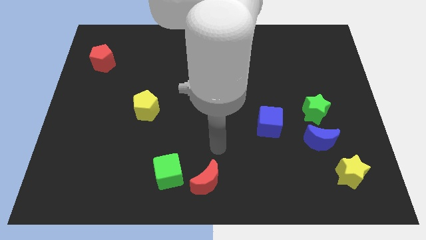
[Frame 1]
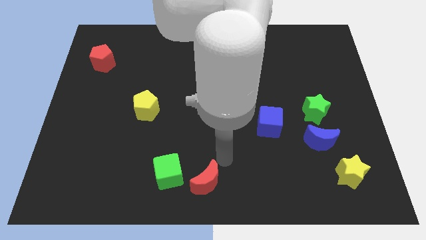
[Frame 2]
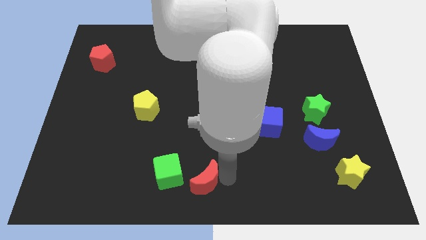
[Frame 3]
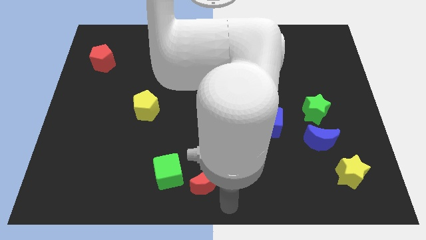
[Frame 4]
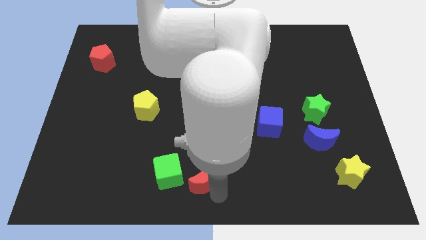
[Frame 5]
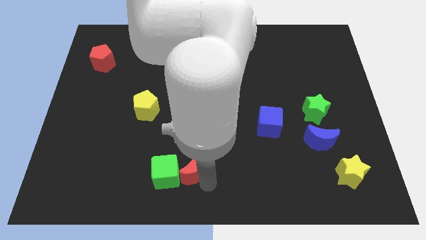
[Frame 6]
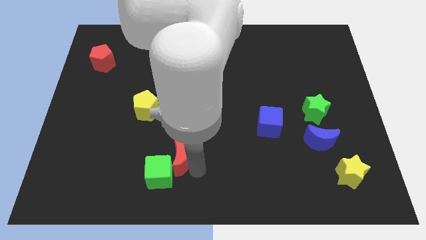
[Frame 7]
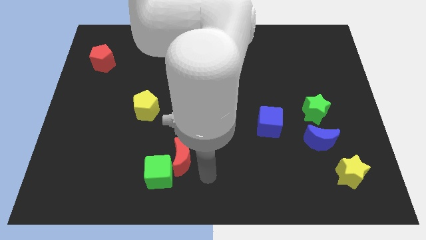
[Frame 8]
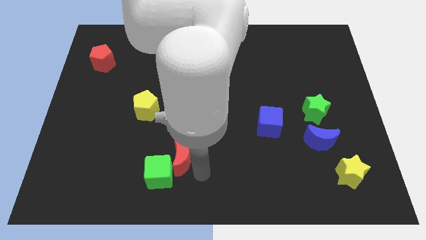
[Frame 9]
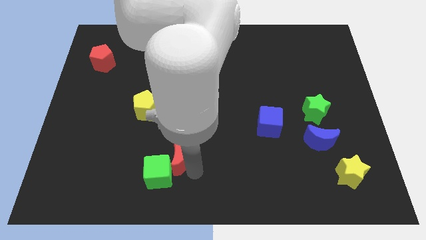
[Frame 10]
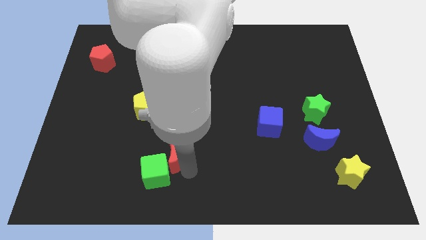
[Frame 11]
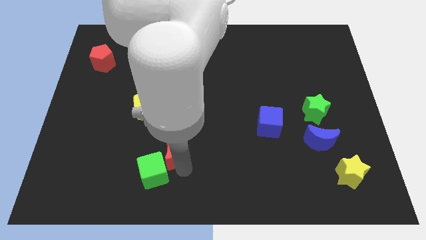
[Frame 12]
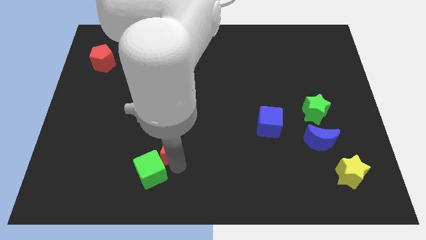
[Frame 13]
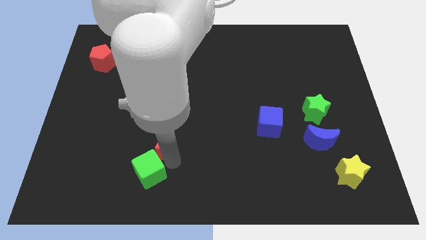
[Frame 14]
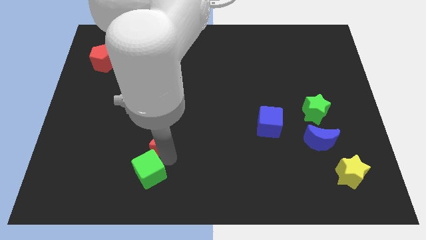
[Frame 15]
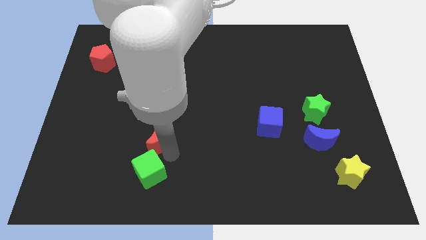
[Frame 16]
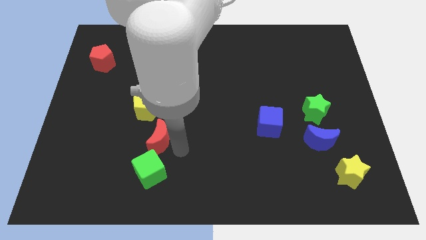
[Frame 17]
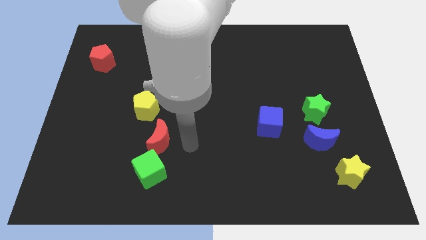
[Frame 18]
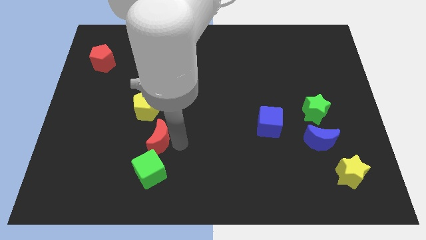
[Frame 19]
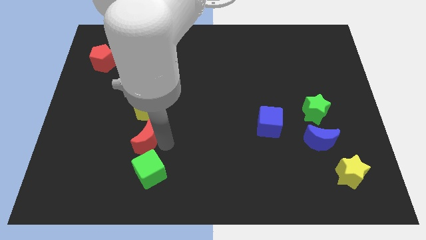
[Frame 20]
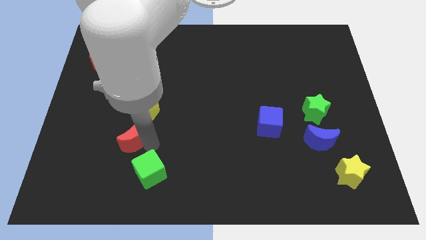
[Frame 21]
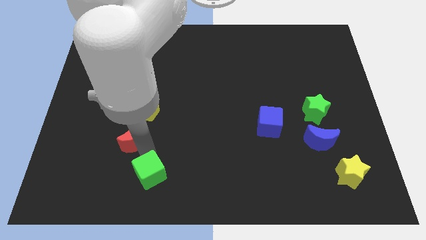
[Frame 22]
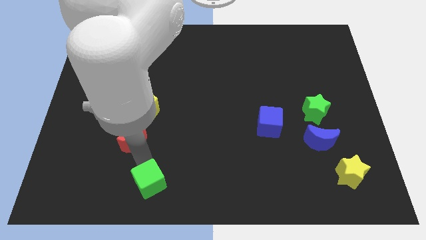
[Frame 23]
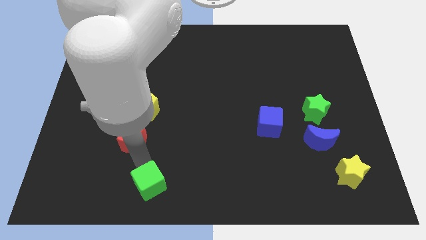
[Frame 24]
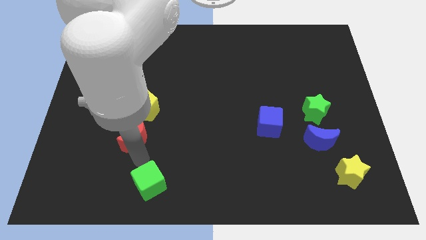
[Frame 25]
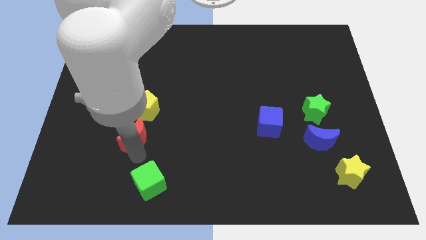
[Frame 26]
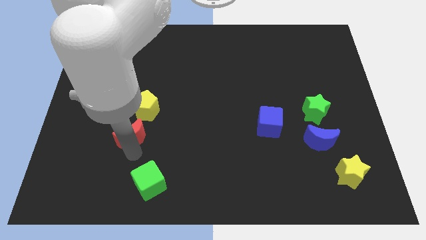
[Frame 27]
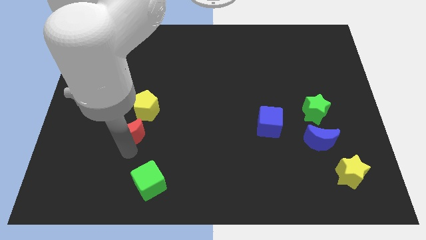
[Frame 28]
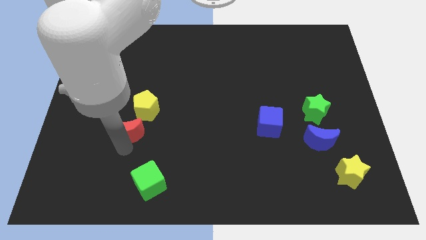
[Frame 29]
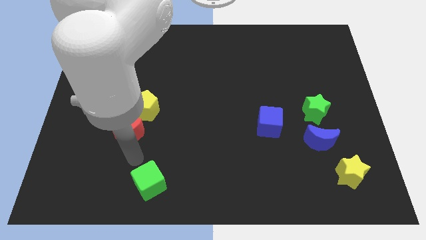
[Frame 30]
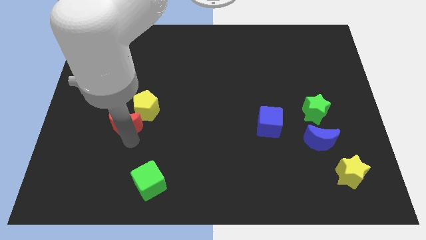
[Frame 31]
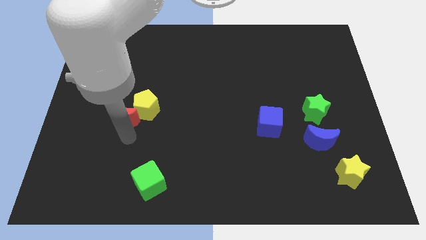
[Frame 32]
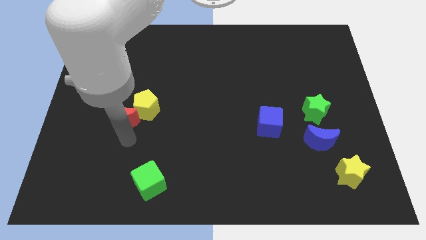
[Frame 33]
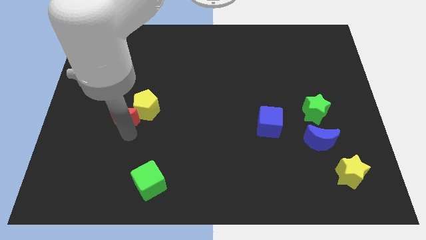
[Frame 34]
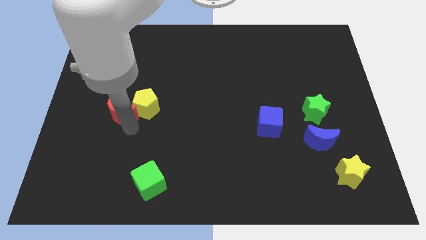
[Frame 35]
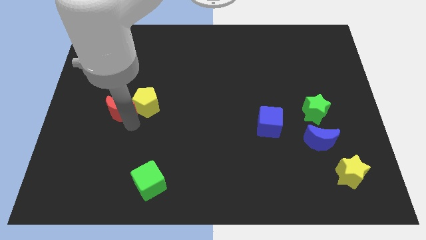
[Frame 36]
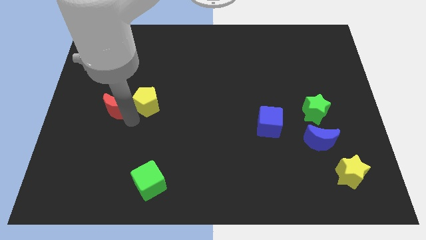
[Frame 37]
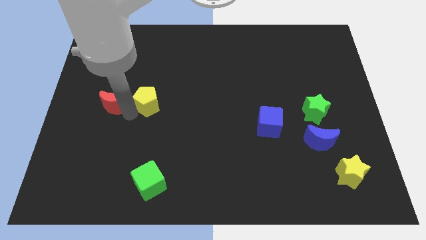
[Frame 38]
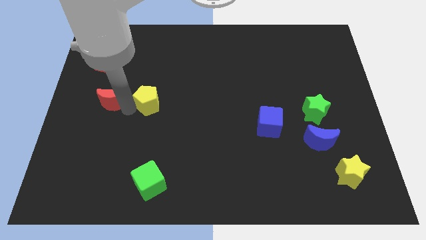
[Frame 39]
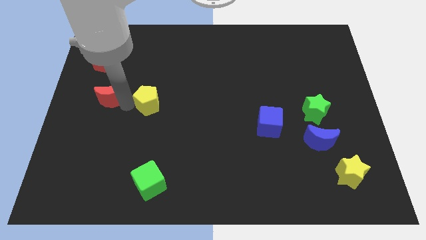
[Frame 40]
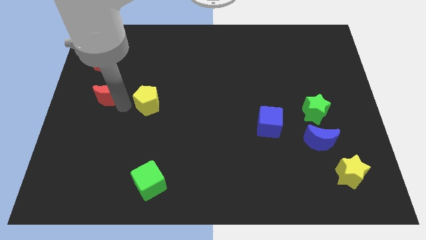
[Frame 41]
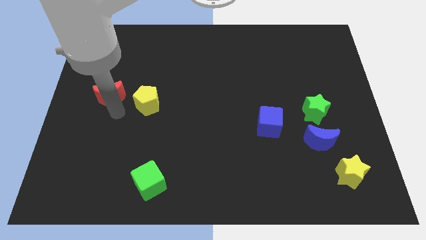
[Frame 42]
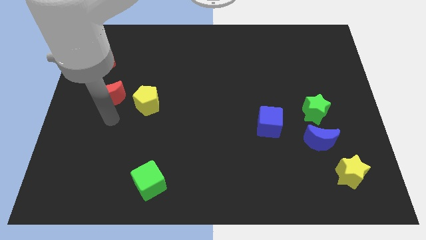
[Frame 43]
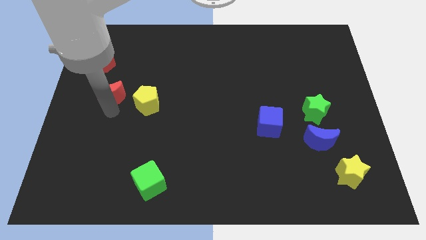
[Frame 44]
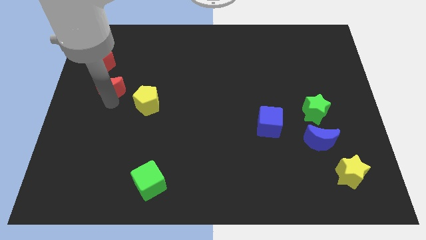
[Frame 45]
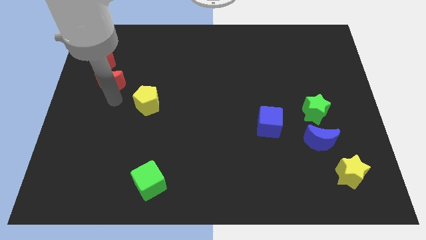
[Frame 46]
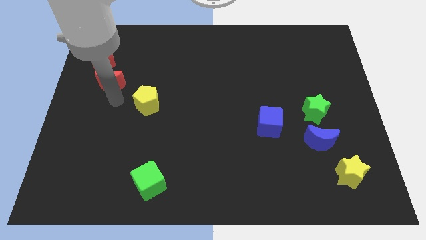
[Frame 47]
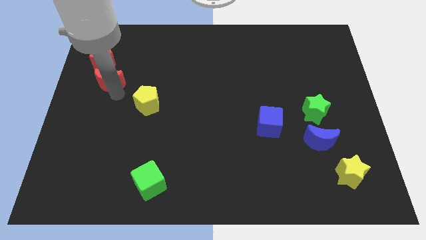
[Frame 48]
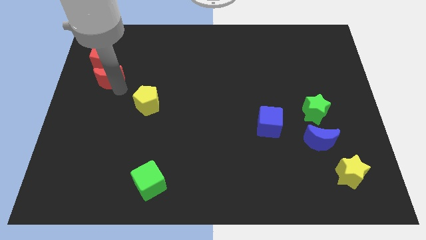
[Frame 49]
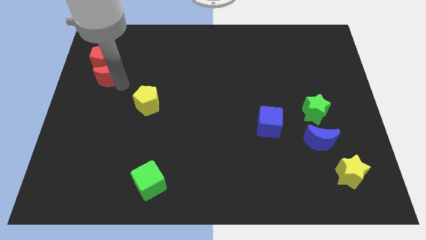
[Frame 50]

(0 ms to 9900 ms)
slide the red moon close to the red pentagon

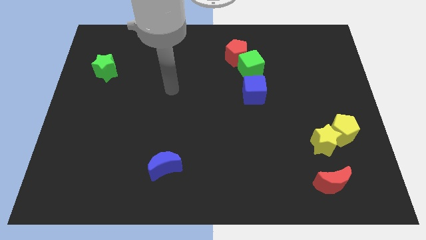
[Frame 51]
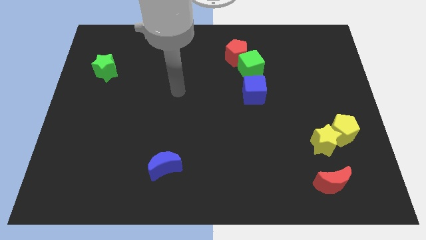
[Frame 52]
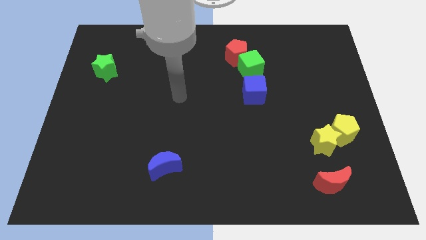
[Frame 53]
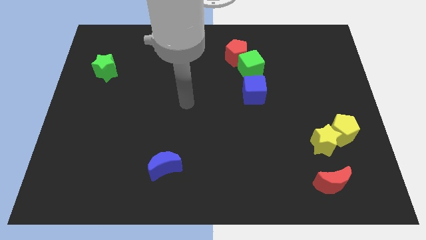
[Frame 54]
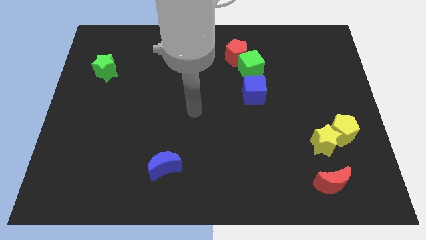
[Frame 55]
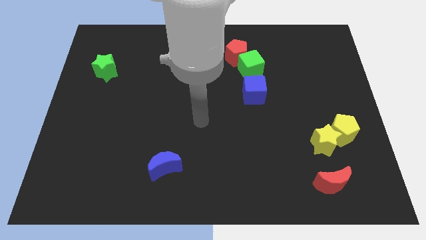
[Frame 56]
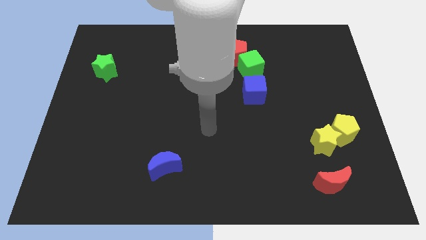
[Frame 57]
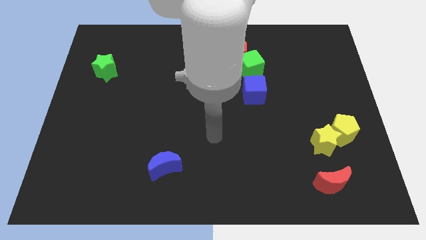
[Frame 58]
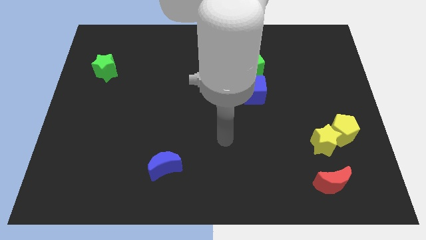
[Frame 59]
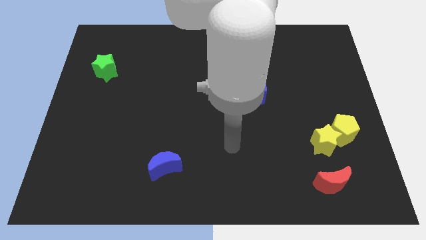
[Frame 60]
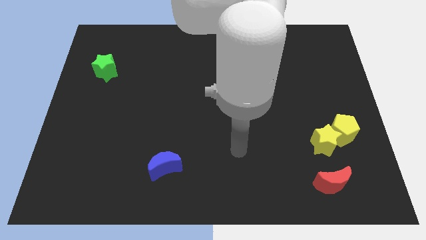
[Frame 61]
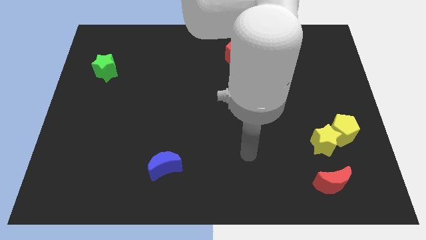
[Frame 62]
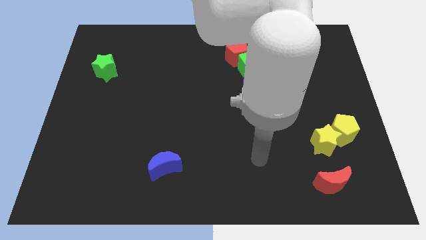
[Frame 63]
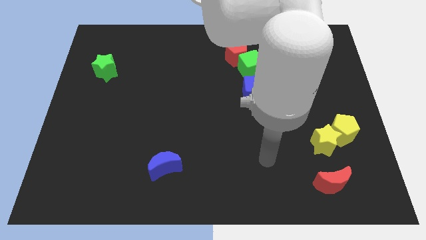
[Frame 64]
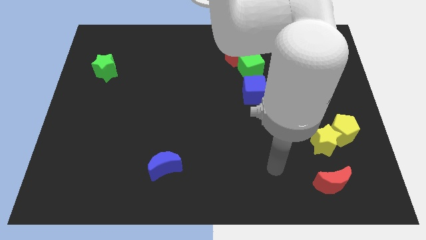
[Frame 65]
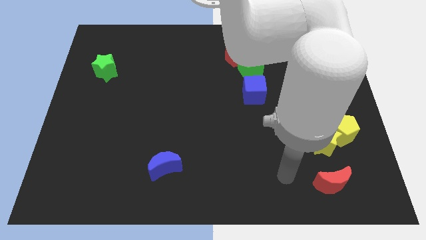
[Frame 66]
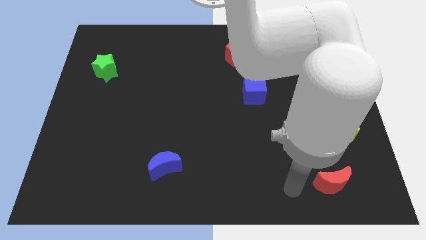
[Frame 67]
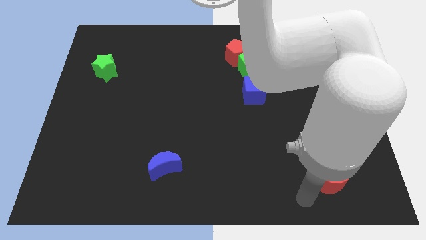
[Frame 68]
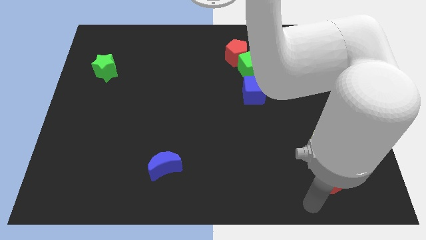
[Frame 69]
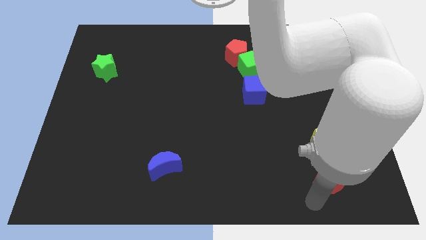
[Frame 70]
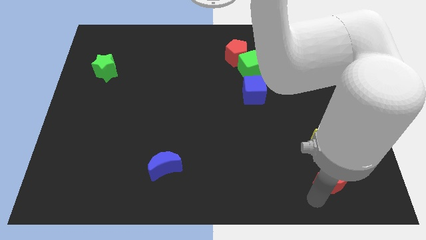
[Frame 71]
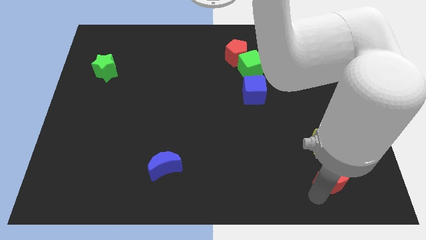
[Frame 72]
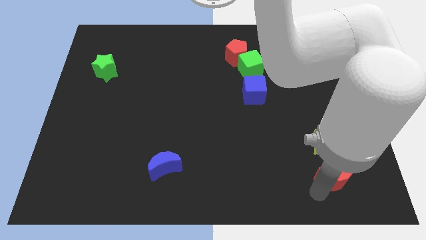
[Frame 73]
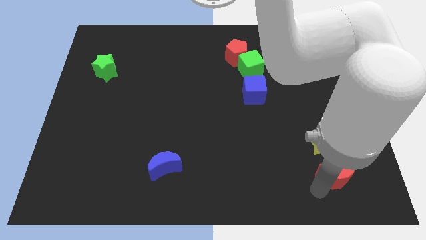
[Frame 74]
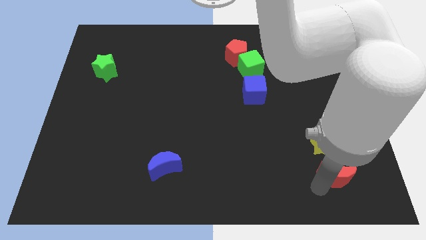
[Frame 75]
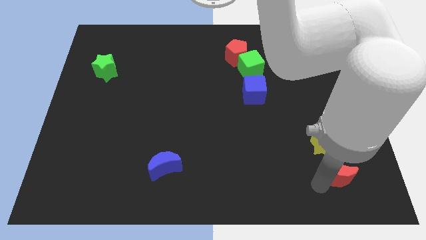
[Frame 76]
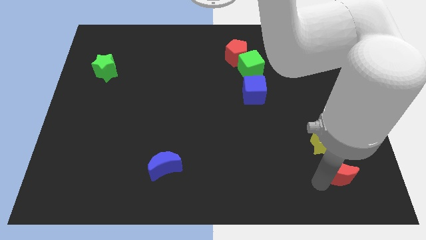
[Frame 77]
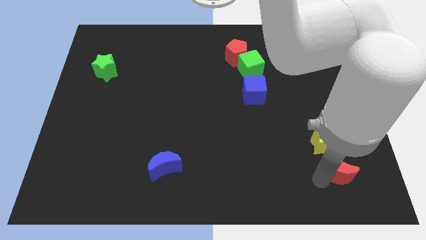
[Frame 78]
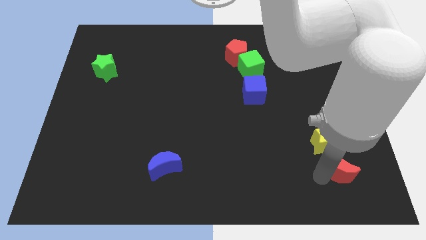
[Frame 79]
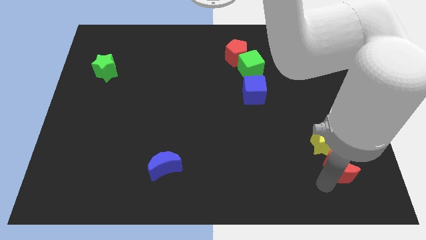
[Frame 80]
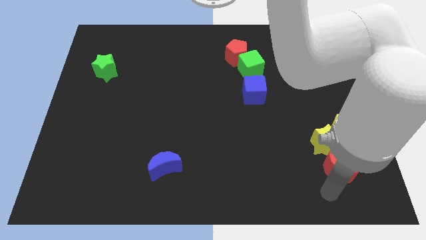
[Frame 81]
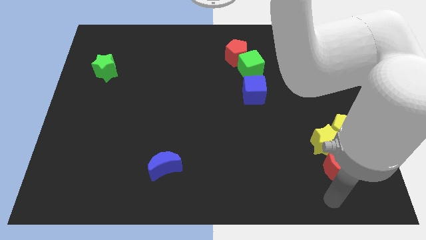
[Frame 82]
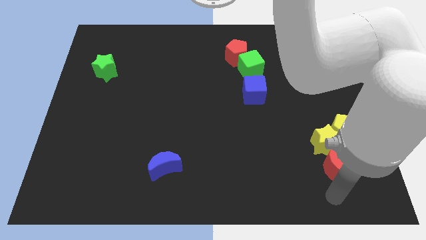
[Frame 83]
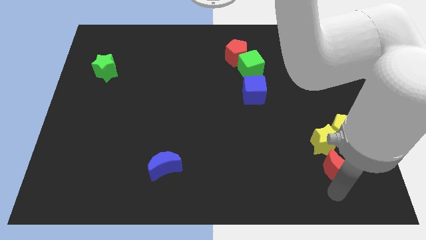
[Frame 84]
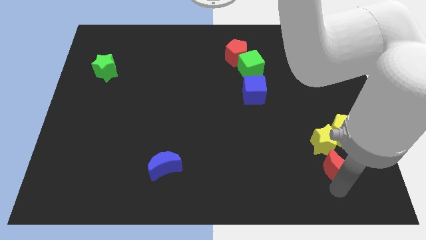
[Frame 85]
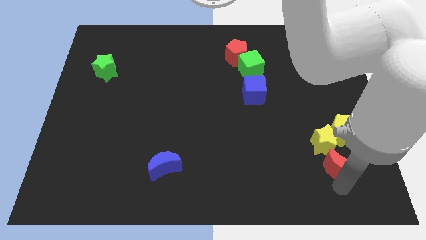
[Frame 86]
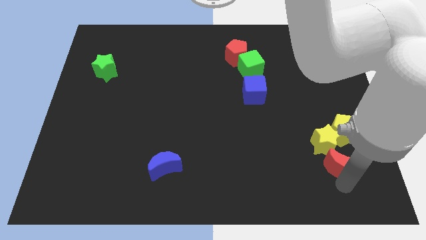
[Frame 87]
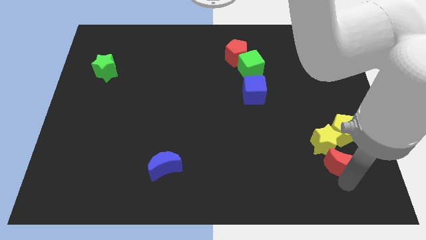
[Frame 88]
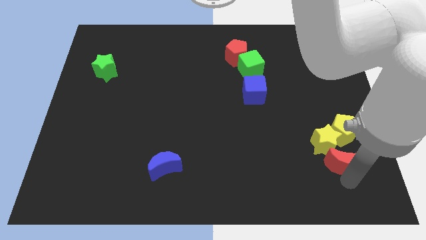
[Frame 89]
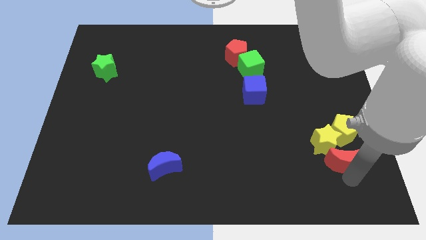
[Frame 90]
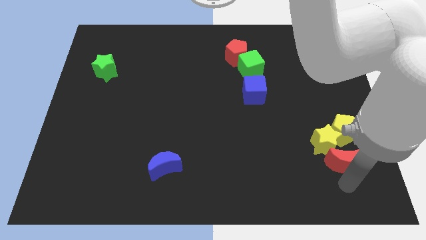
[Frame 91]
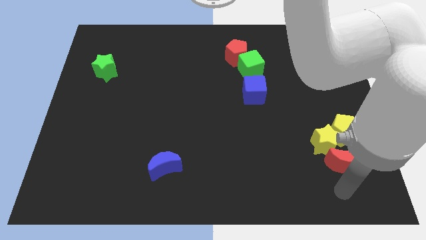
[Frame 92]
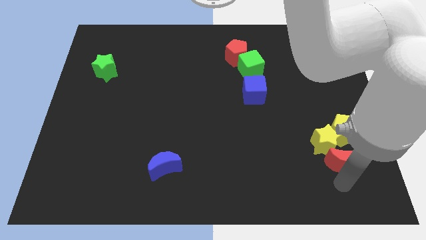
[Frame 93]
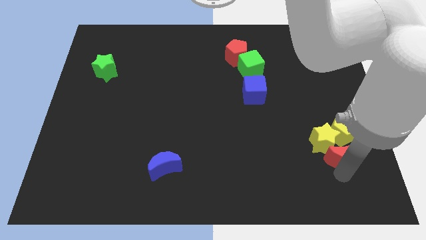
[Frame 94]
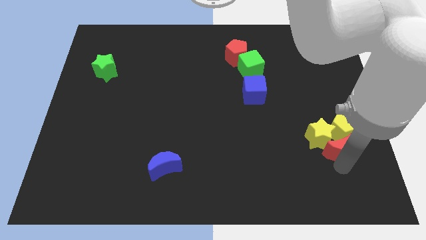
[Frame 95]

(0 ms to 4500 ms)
put the red moon to the yellow pentagon
